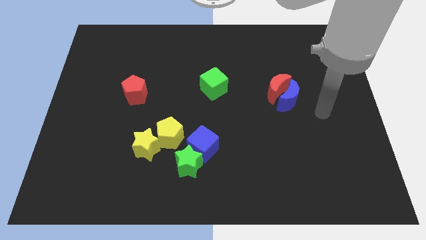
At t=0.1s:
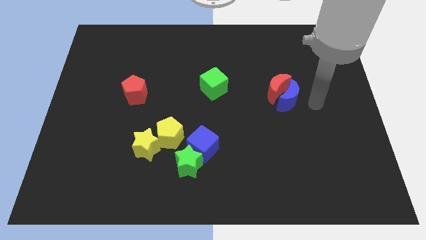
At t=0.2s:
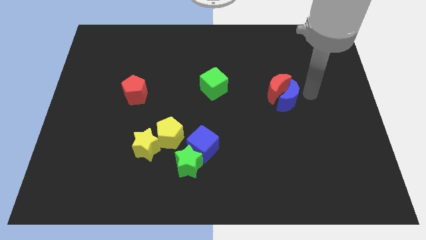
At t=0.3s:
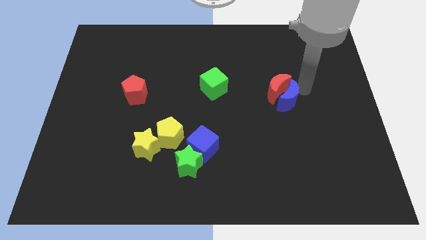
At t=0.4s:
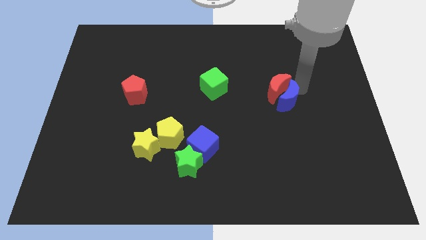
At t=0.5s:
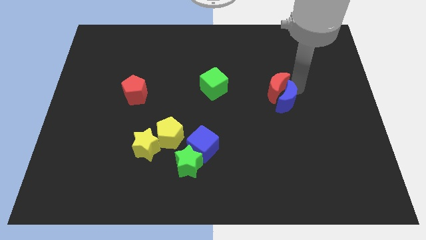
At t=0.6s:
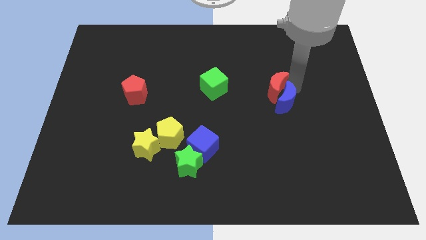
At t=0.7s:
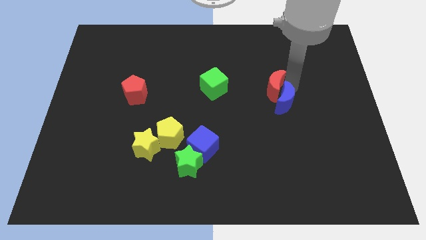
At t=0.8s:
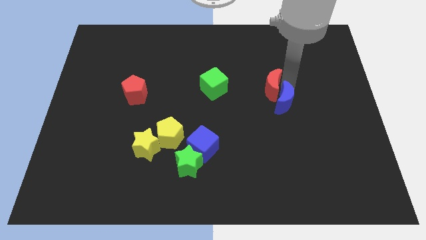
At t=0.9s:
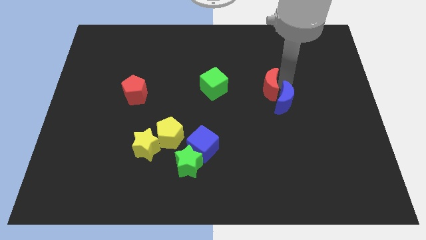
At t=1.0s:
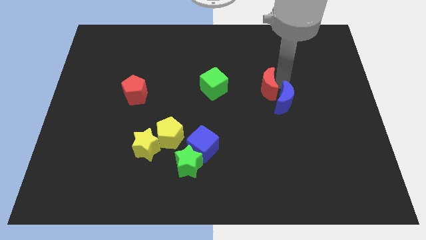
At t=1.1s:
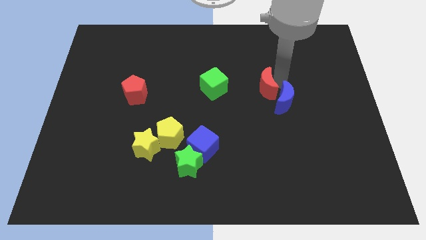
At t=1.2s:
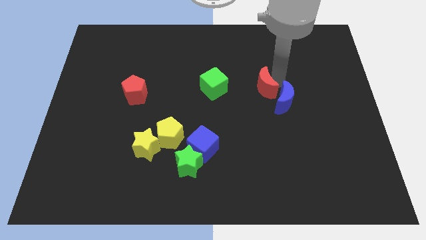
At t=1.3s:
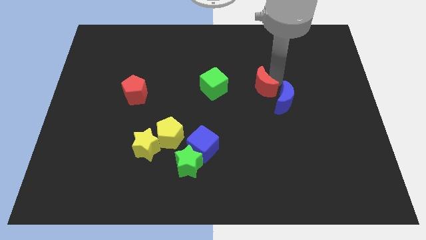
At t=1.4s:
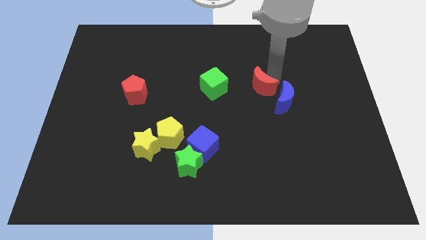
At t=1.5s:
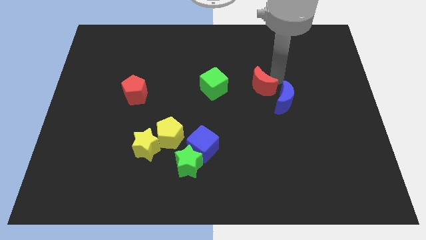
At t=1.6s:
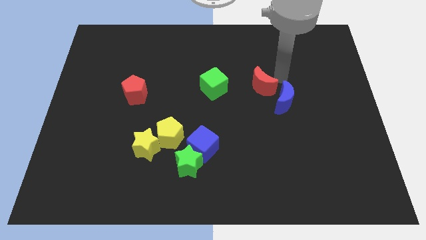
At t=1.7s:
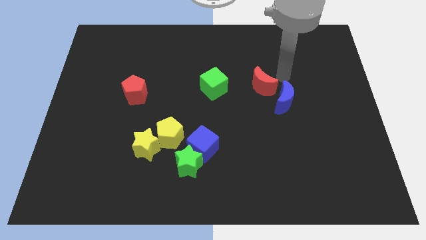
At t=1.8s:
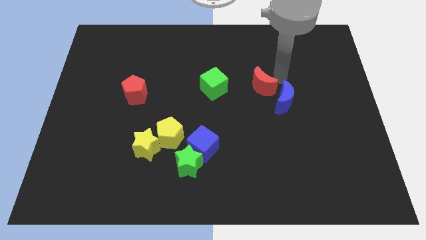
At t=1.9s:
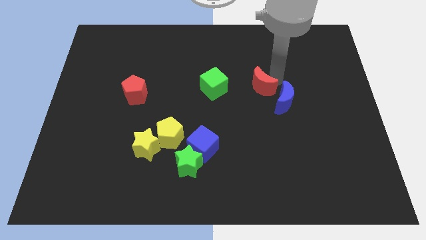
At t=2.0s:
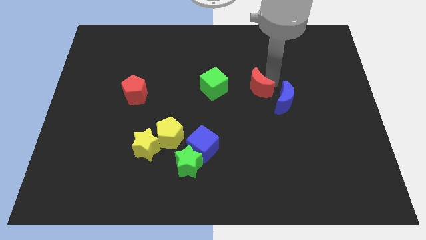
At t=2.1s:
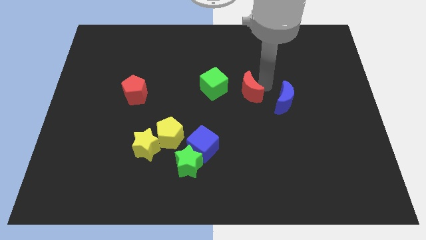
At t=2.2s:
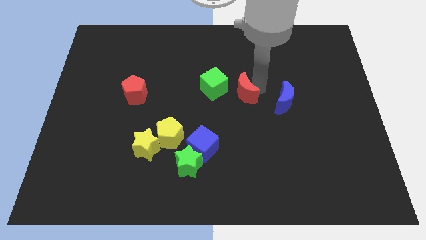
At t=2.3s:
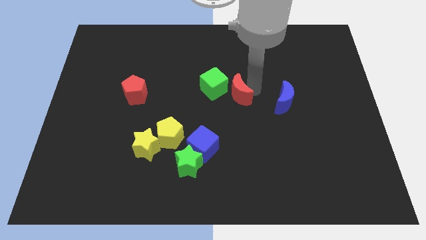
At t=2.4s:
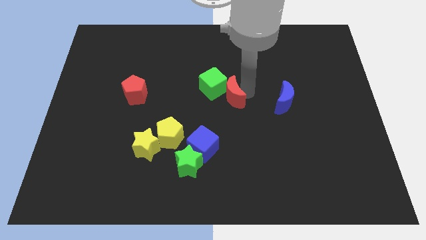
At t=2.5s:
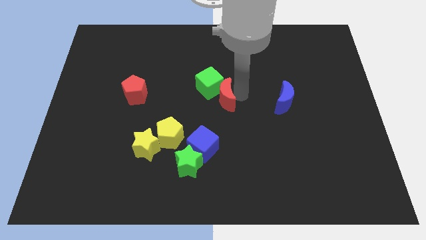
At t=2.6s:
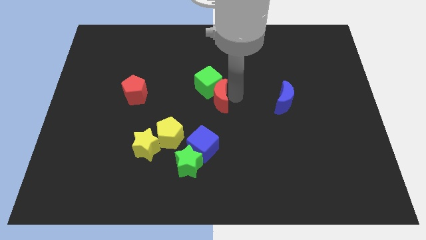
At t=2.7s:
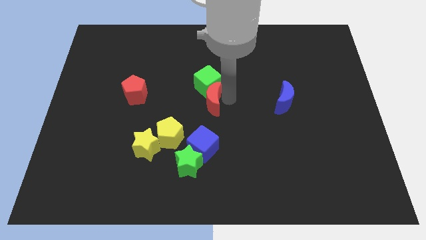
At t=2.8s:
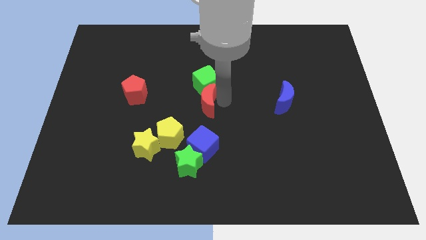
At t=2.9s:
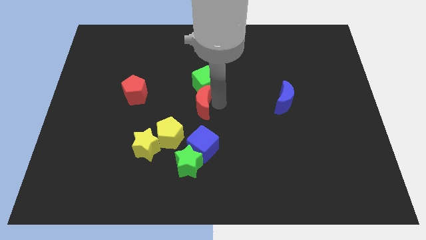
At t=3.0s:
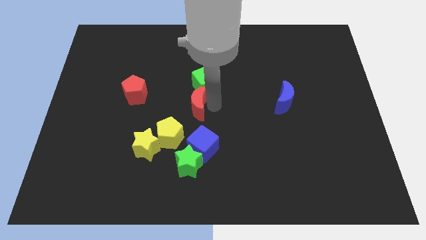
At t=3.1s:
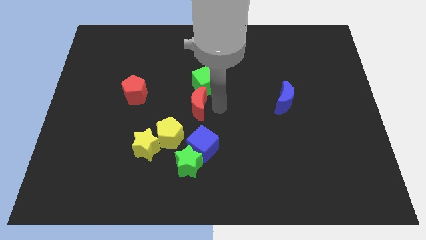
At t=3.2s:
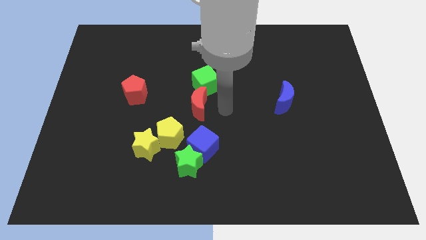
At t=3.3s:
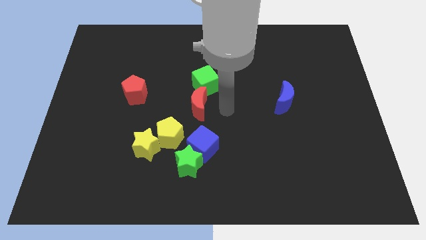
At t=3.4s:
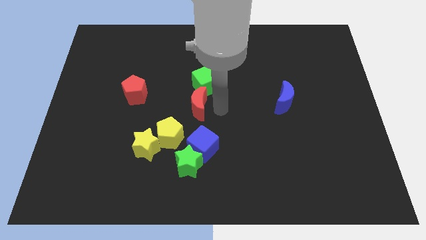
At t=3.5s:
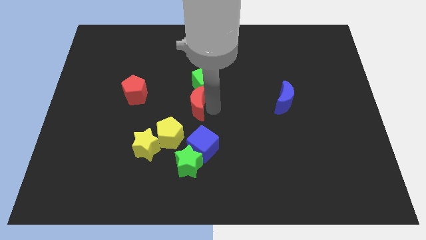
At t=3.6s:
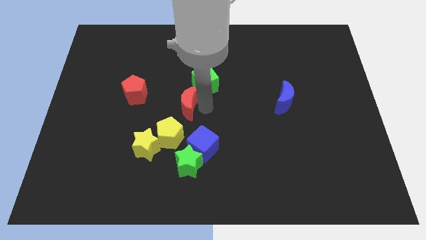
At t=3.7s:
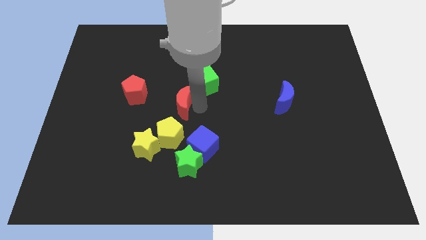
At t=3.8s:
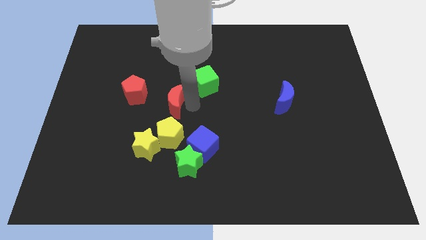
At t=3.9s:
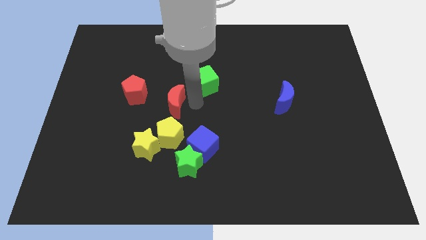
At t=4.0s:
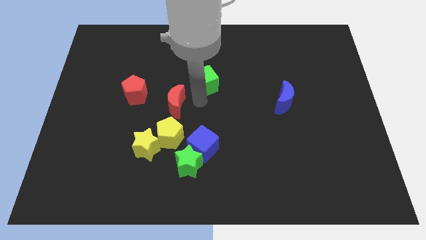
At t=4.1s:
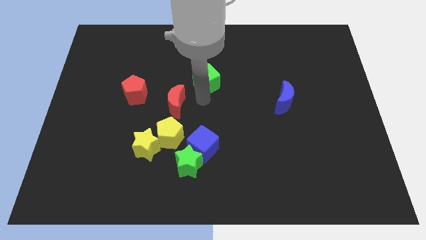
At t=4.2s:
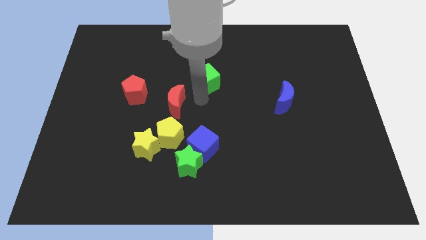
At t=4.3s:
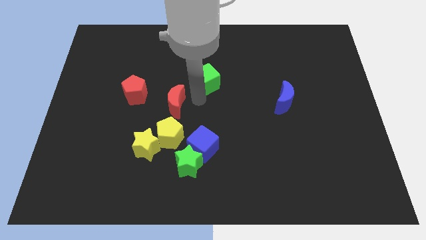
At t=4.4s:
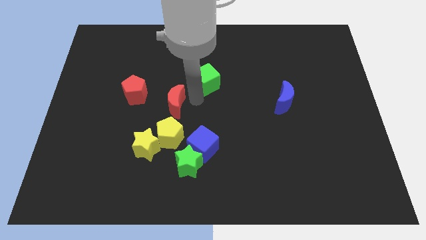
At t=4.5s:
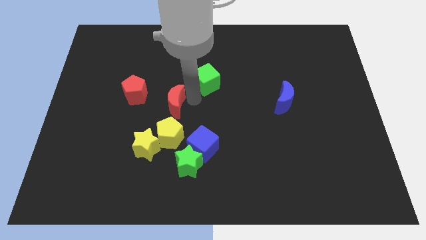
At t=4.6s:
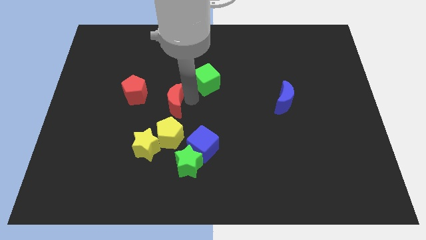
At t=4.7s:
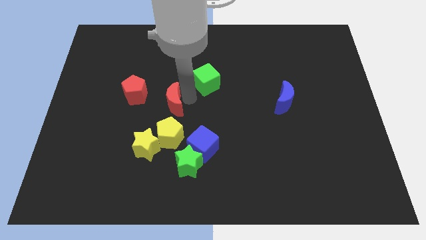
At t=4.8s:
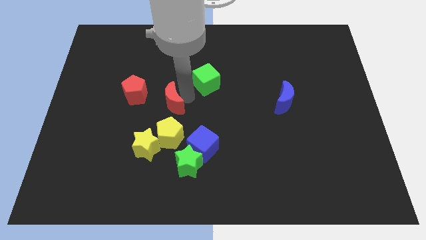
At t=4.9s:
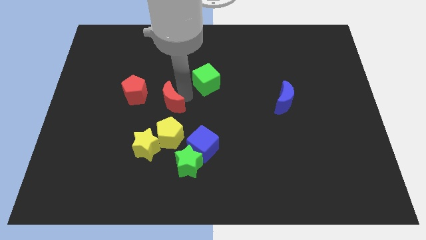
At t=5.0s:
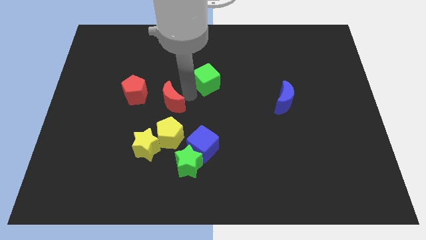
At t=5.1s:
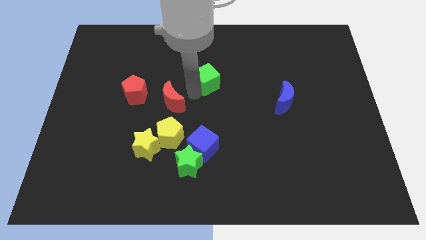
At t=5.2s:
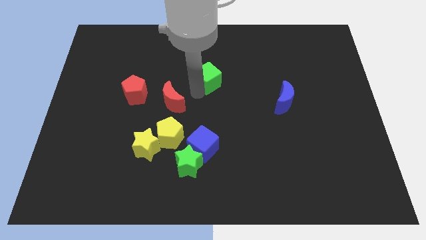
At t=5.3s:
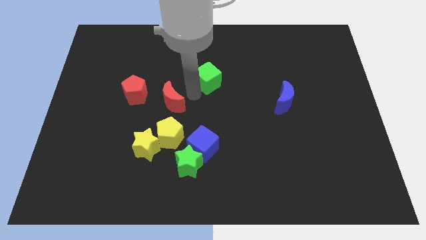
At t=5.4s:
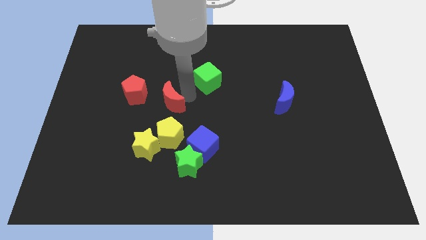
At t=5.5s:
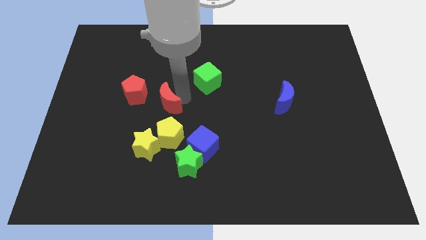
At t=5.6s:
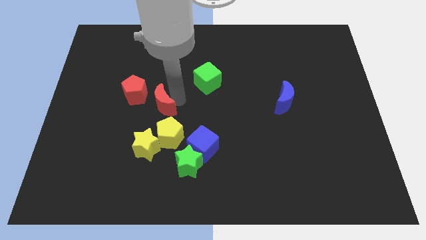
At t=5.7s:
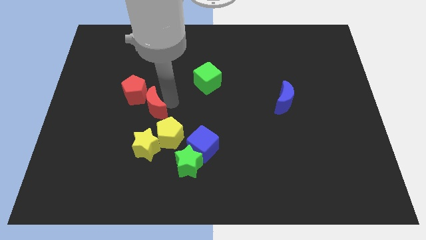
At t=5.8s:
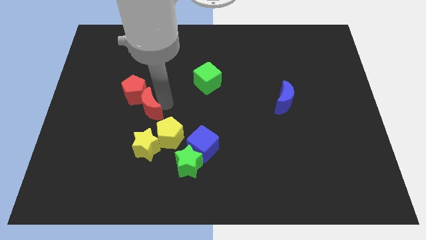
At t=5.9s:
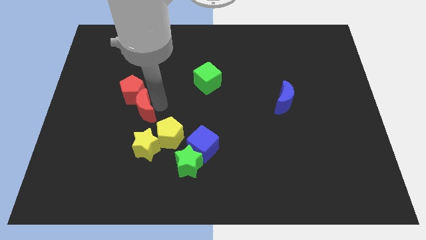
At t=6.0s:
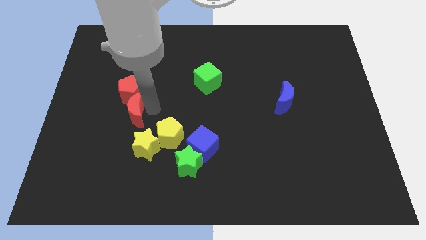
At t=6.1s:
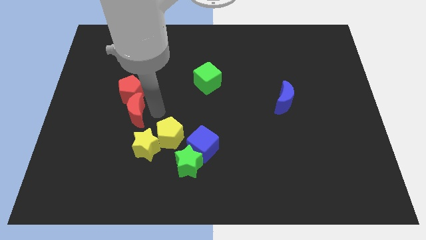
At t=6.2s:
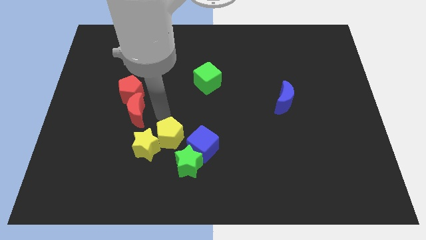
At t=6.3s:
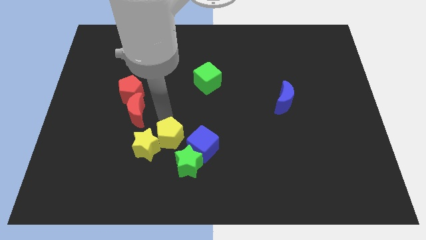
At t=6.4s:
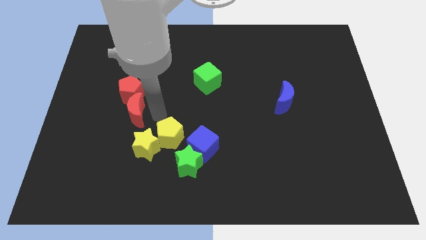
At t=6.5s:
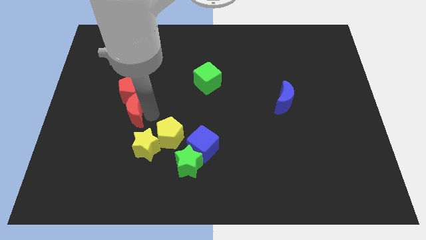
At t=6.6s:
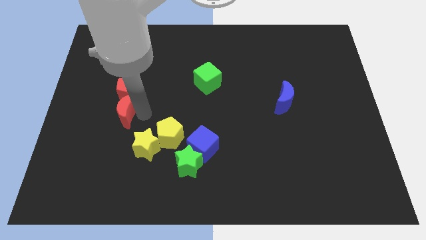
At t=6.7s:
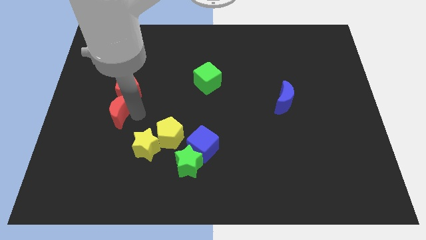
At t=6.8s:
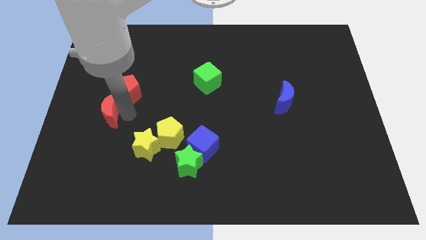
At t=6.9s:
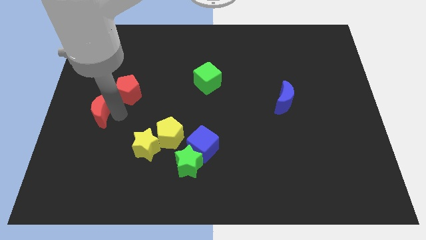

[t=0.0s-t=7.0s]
push the red moon to the left side of the board

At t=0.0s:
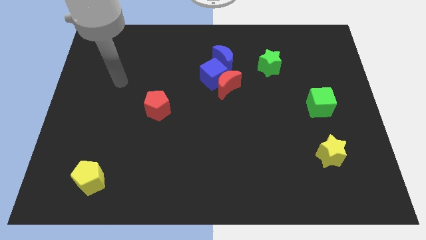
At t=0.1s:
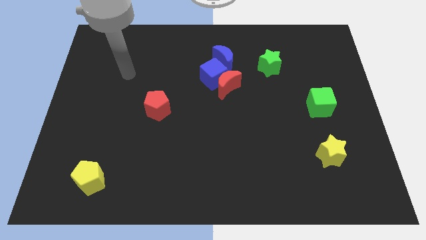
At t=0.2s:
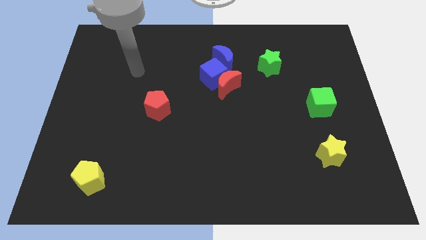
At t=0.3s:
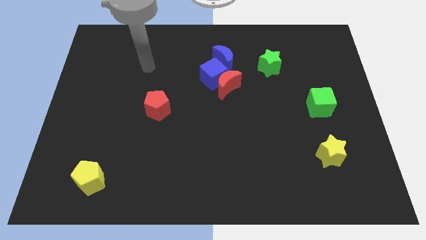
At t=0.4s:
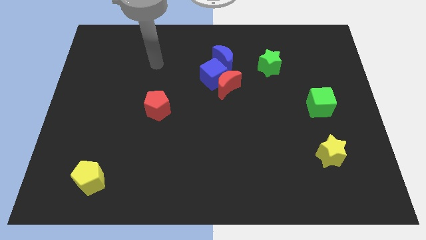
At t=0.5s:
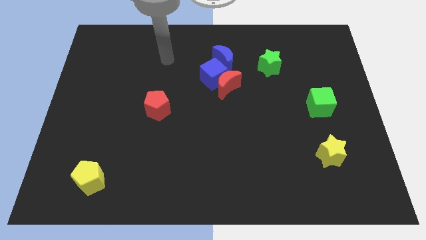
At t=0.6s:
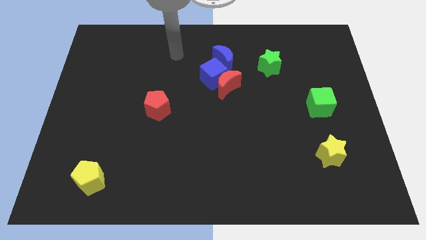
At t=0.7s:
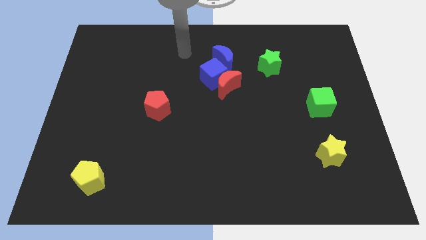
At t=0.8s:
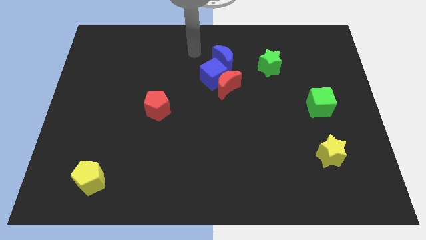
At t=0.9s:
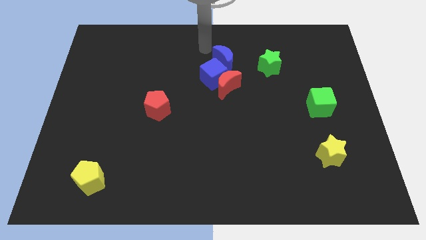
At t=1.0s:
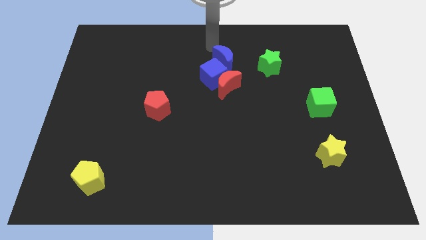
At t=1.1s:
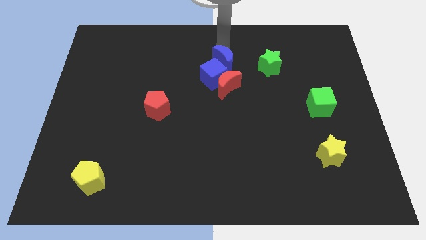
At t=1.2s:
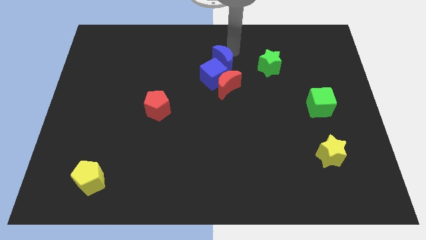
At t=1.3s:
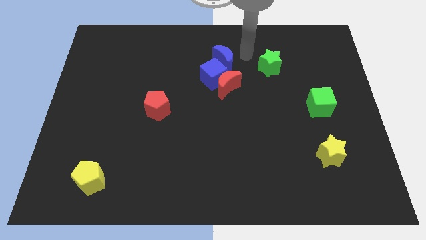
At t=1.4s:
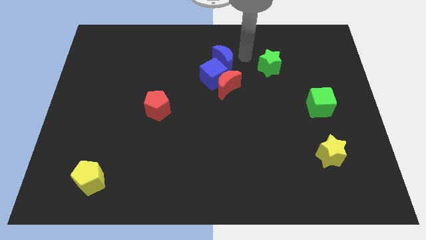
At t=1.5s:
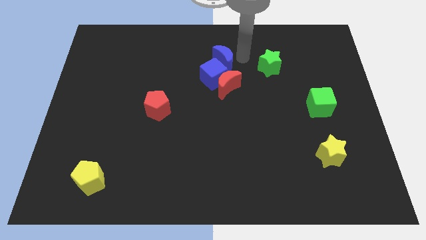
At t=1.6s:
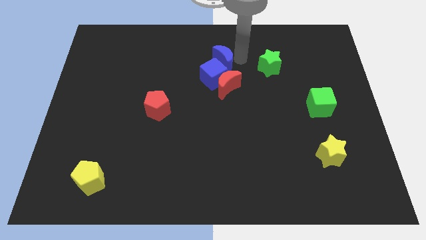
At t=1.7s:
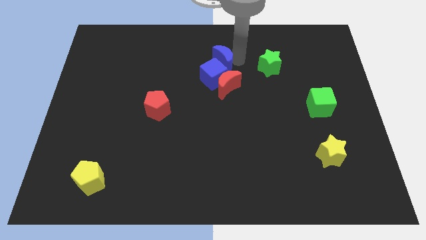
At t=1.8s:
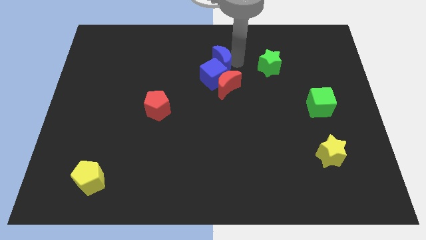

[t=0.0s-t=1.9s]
put the blue moon to the middle of the board
